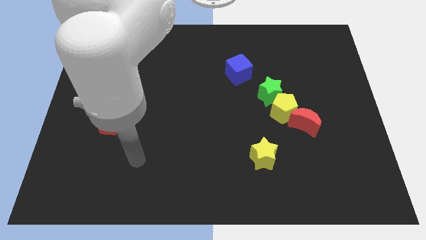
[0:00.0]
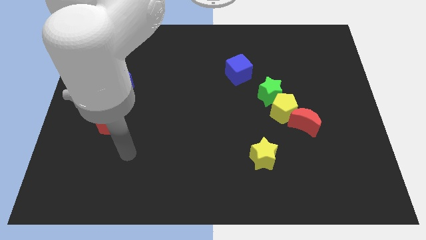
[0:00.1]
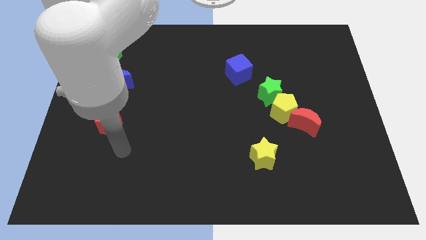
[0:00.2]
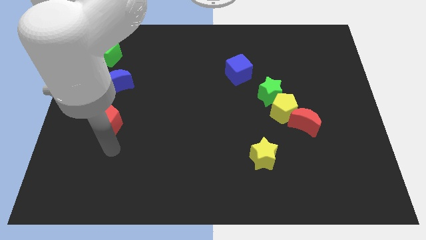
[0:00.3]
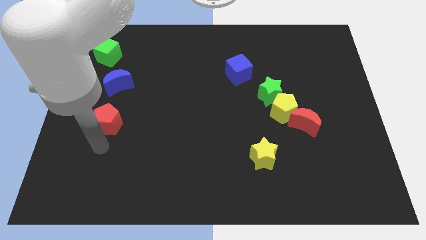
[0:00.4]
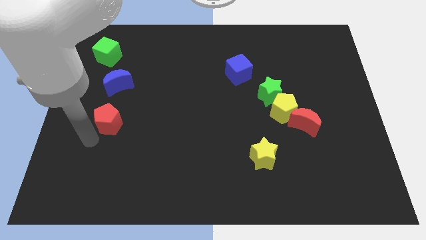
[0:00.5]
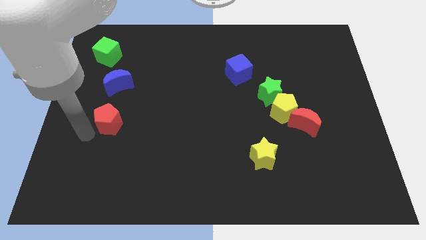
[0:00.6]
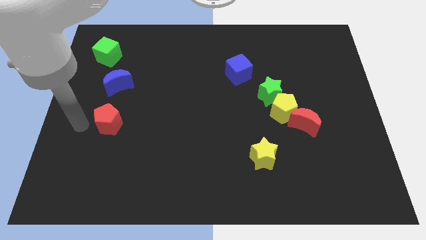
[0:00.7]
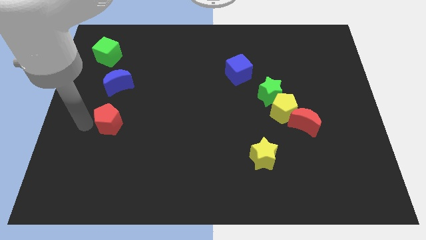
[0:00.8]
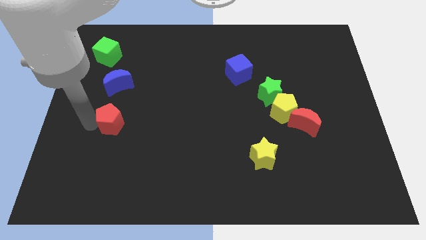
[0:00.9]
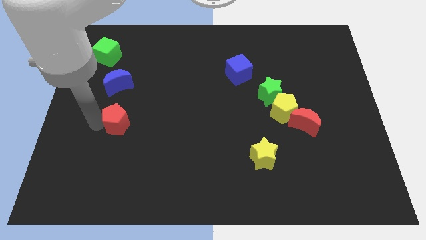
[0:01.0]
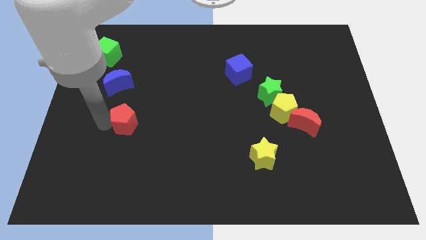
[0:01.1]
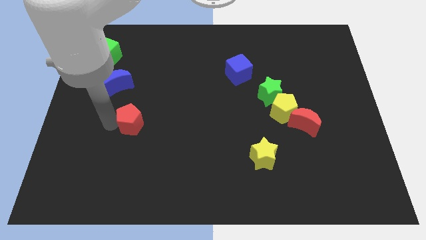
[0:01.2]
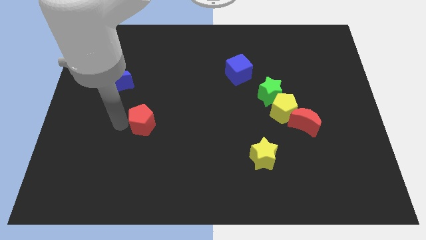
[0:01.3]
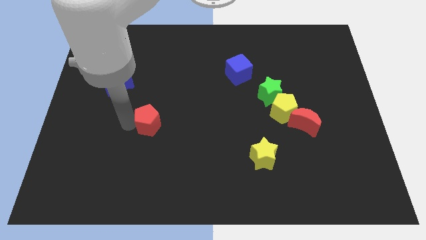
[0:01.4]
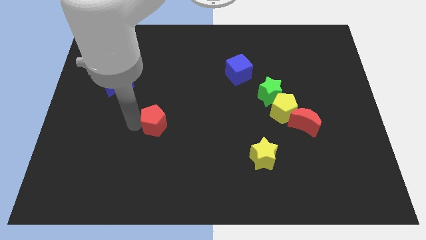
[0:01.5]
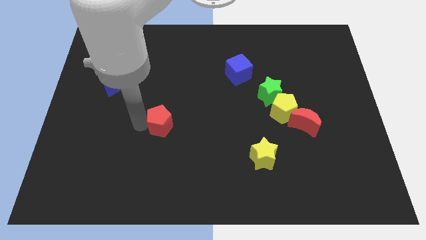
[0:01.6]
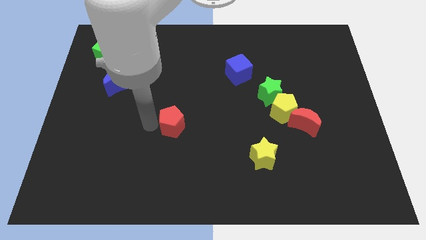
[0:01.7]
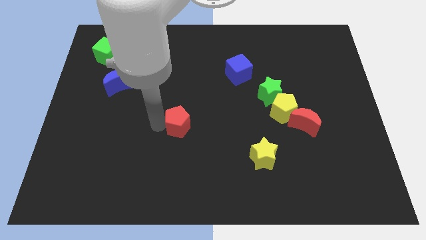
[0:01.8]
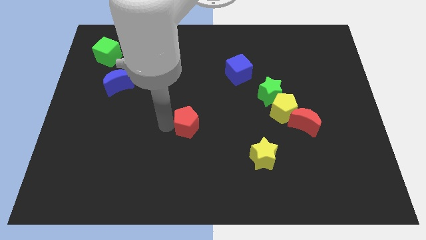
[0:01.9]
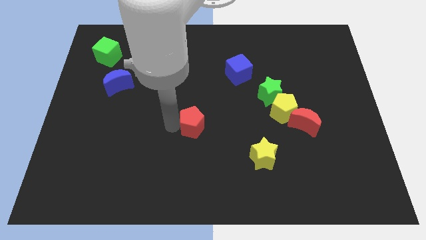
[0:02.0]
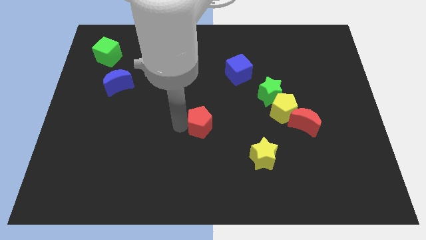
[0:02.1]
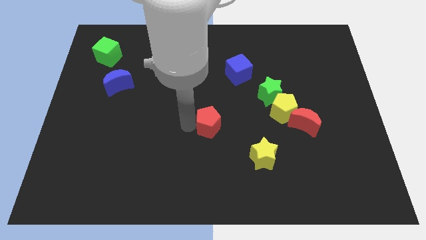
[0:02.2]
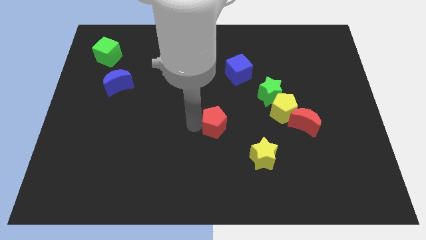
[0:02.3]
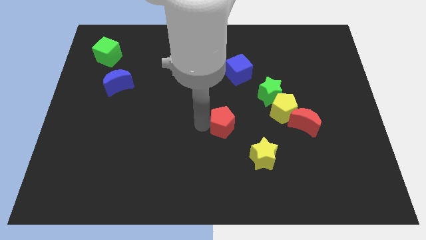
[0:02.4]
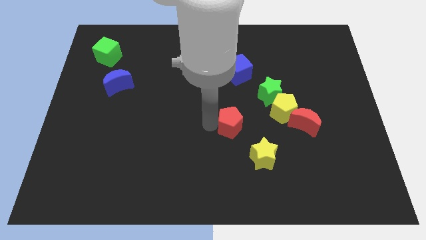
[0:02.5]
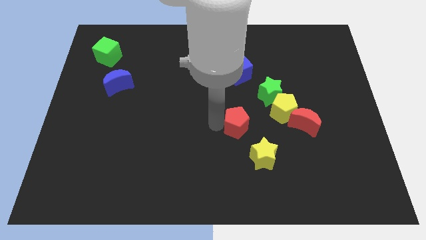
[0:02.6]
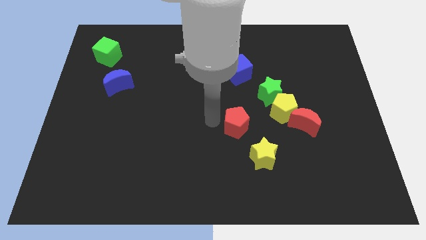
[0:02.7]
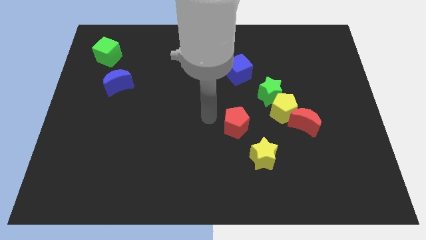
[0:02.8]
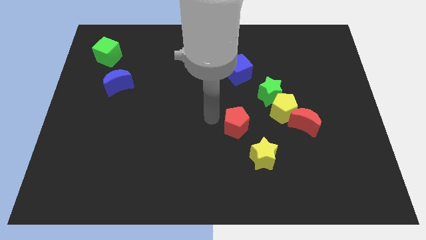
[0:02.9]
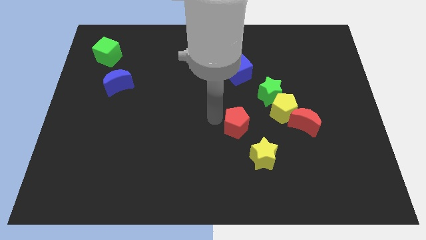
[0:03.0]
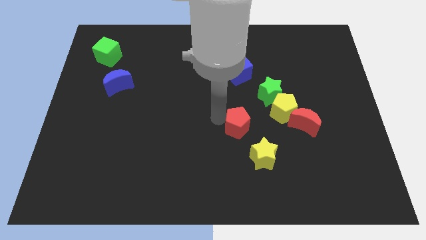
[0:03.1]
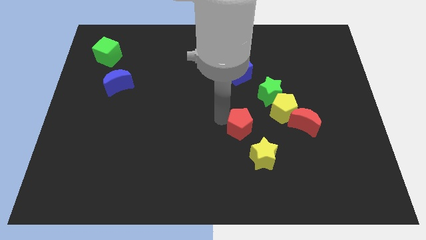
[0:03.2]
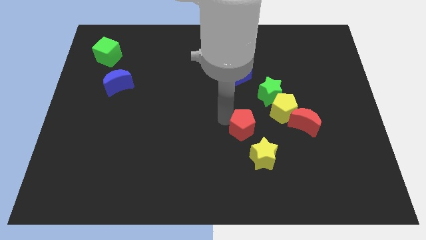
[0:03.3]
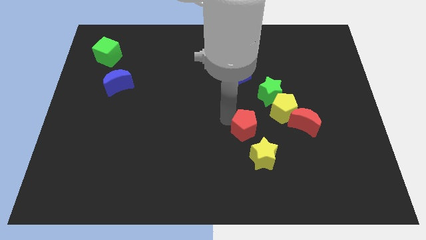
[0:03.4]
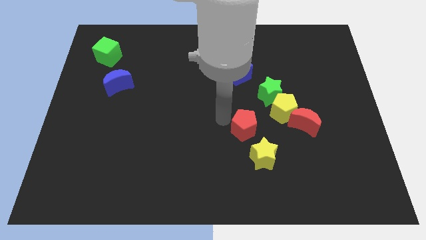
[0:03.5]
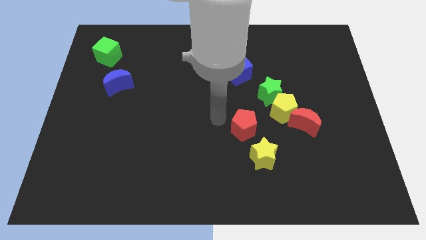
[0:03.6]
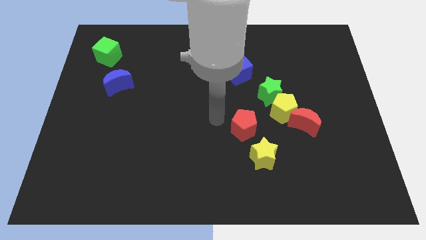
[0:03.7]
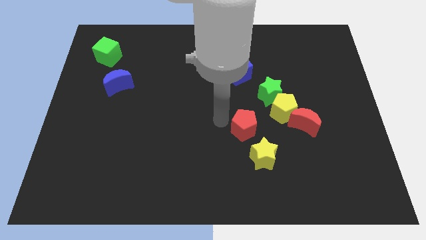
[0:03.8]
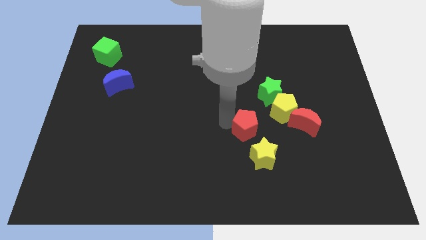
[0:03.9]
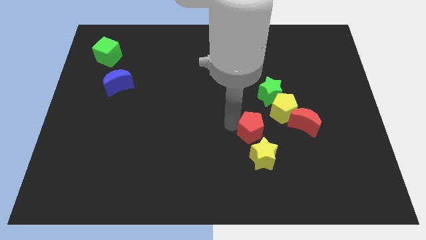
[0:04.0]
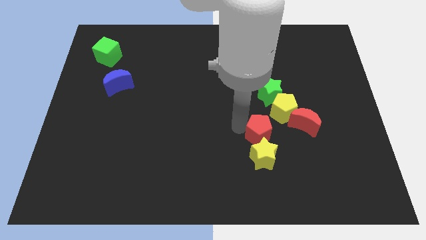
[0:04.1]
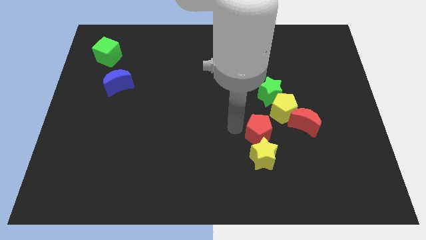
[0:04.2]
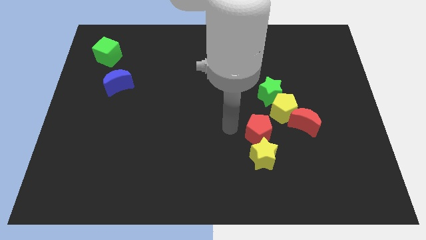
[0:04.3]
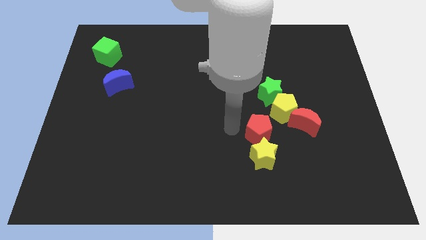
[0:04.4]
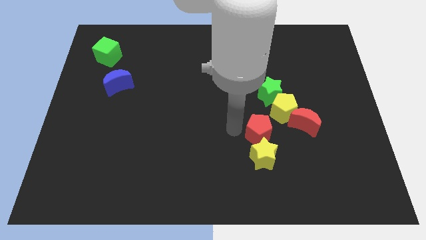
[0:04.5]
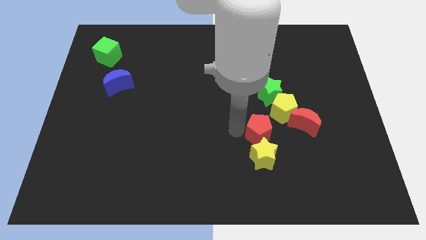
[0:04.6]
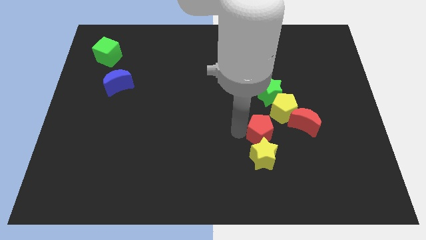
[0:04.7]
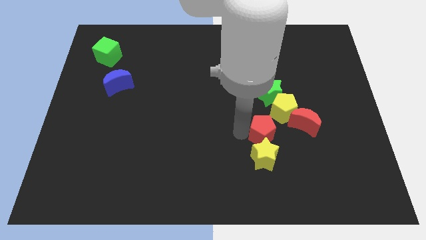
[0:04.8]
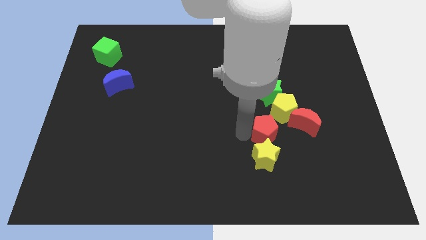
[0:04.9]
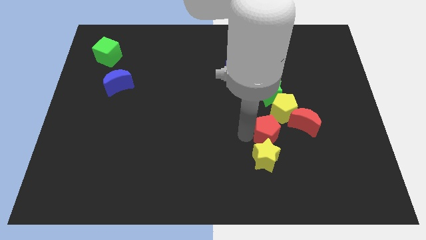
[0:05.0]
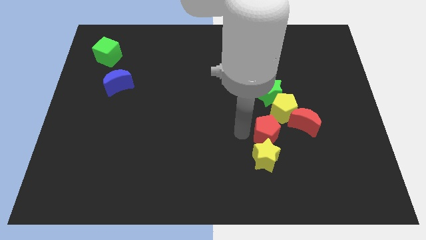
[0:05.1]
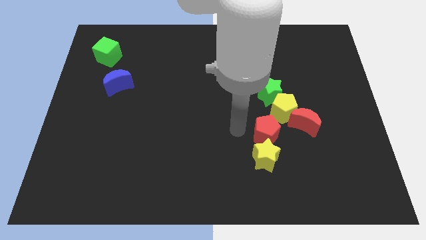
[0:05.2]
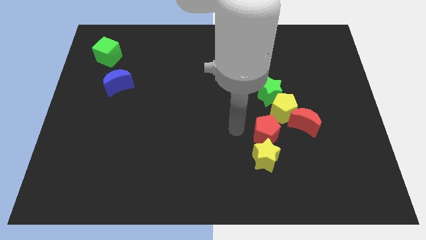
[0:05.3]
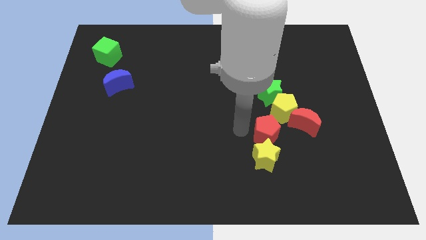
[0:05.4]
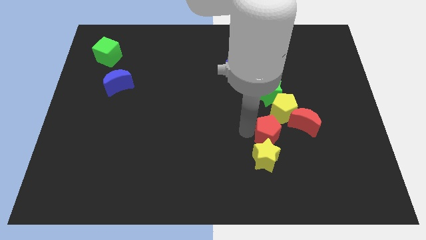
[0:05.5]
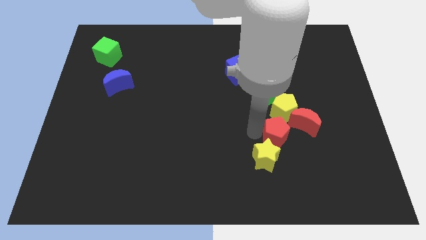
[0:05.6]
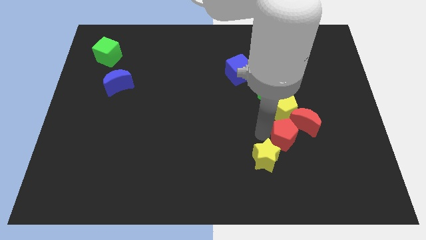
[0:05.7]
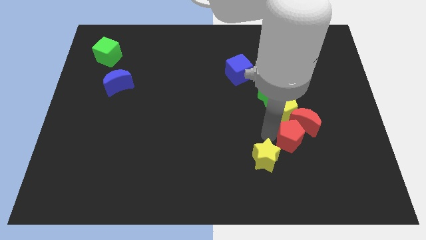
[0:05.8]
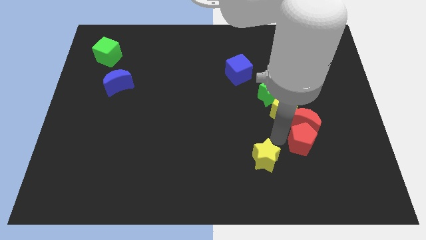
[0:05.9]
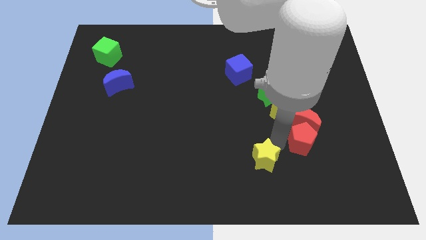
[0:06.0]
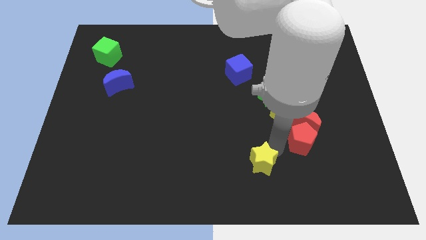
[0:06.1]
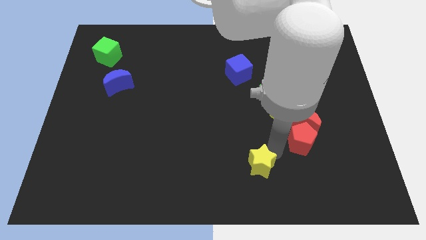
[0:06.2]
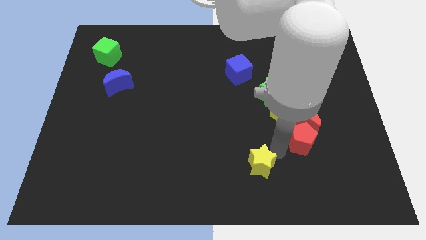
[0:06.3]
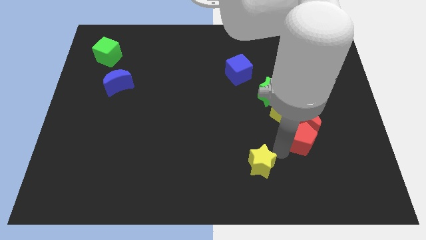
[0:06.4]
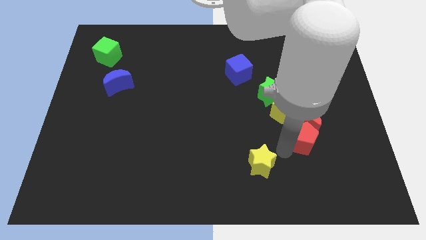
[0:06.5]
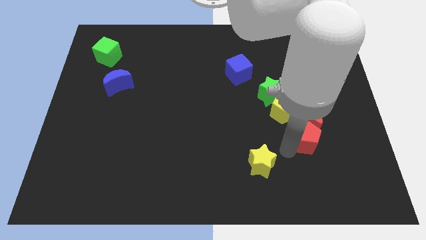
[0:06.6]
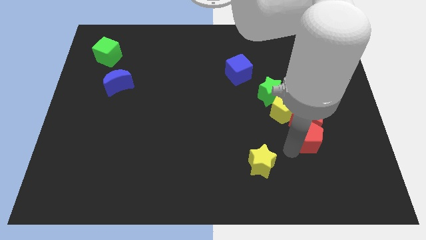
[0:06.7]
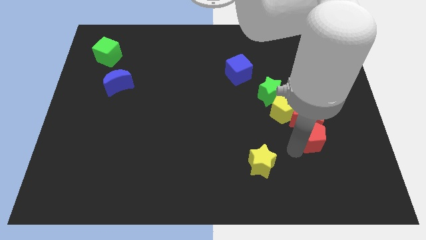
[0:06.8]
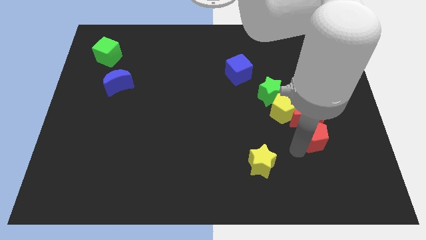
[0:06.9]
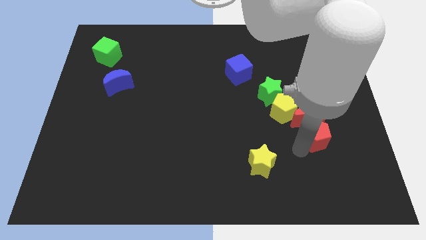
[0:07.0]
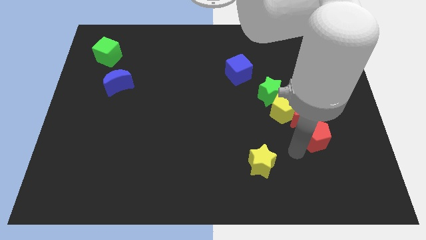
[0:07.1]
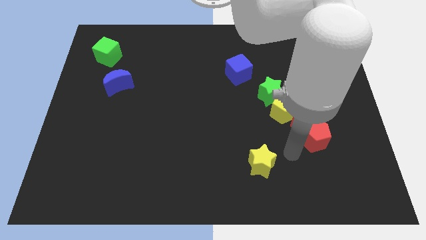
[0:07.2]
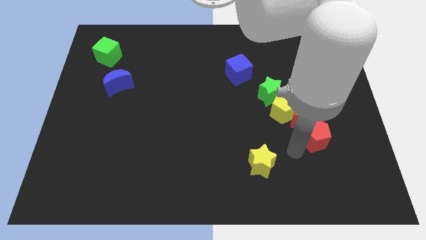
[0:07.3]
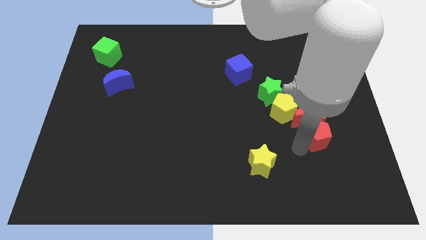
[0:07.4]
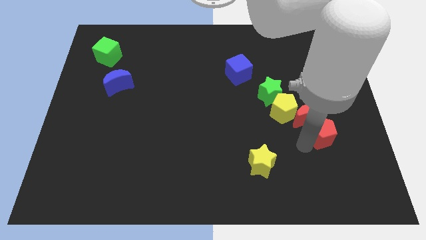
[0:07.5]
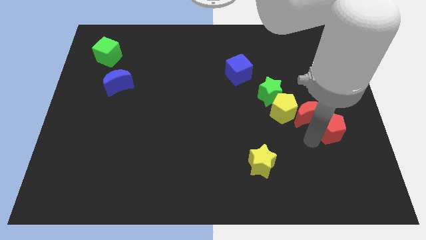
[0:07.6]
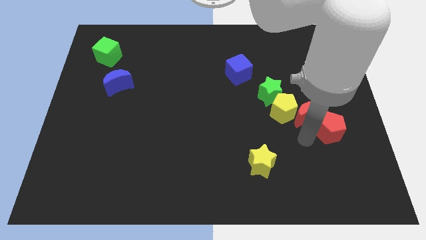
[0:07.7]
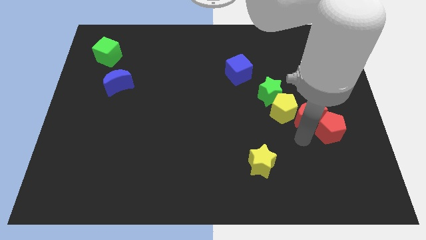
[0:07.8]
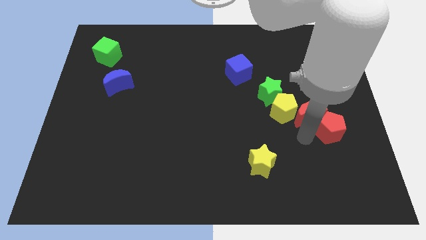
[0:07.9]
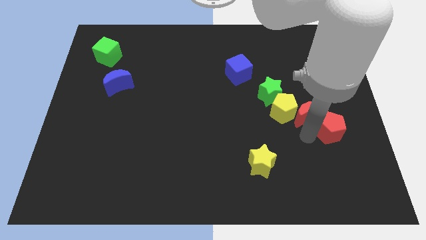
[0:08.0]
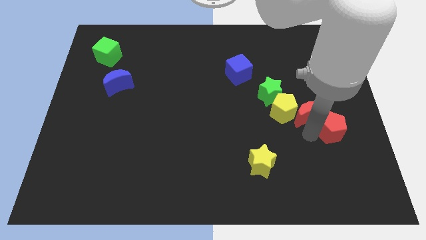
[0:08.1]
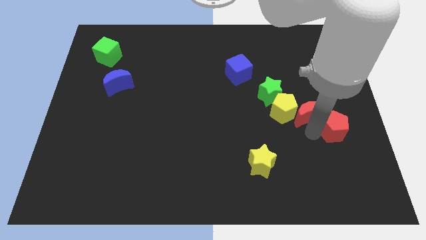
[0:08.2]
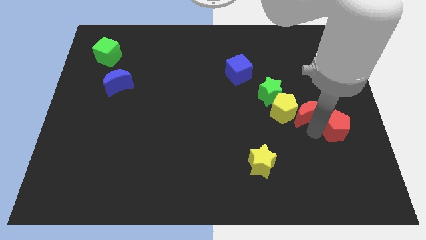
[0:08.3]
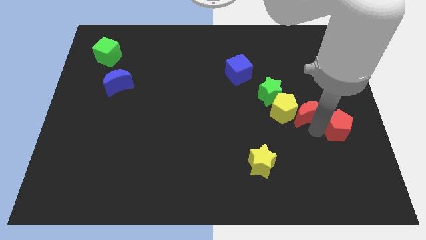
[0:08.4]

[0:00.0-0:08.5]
move the red pentagon to the center right
